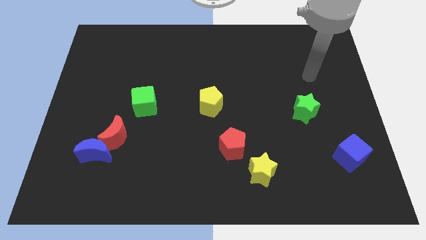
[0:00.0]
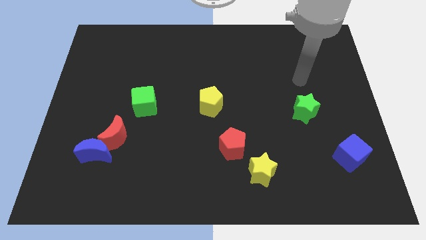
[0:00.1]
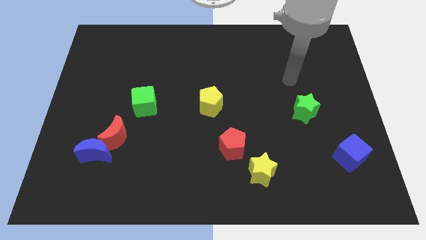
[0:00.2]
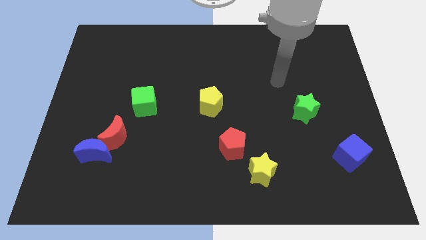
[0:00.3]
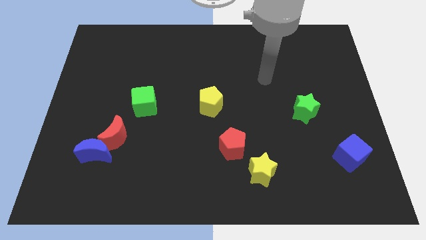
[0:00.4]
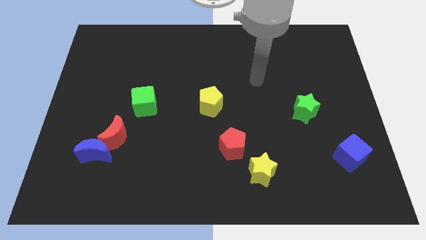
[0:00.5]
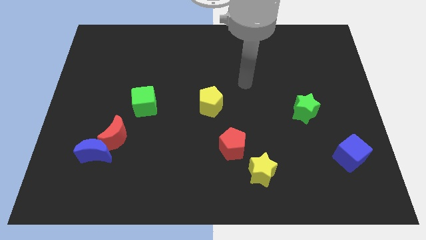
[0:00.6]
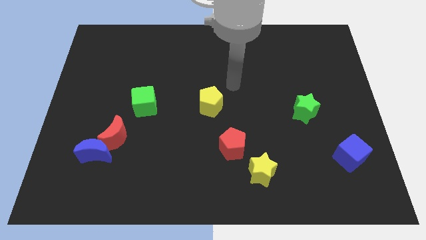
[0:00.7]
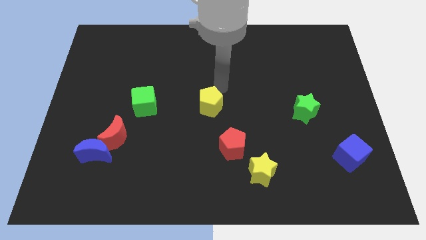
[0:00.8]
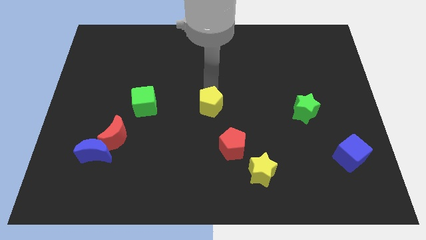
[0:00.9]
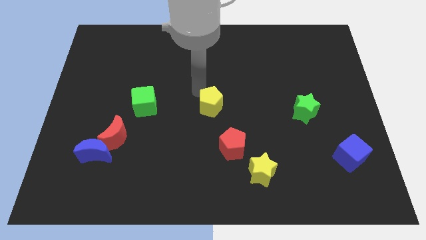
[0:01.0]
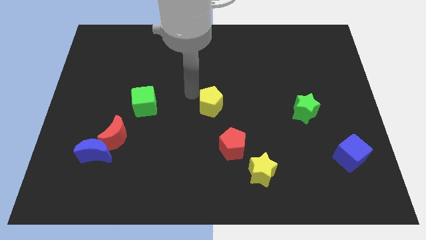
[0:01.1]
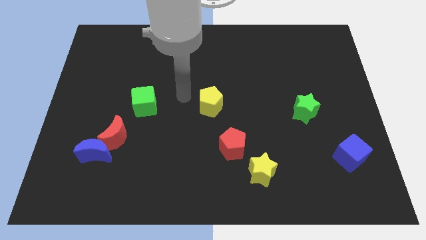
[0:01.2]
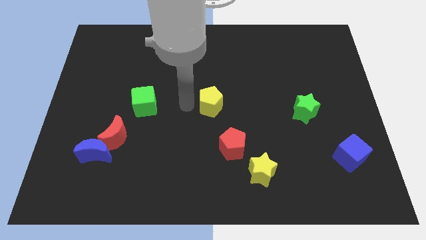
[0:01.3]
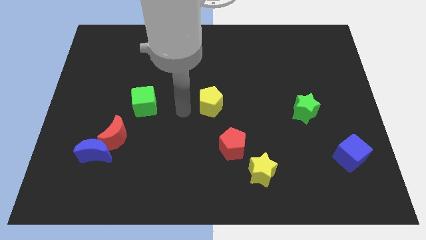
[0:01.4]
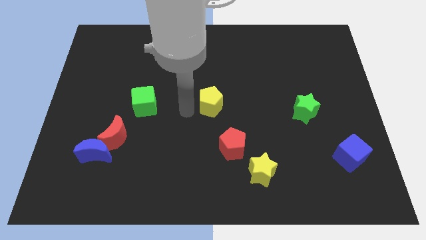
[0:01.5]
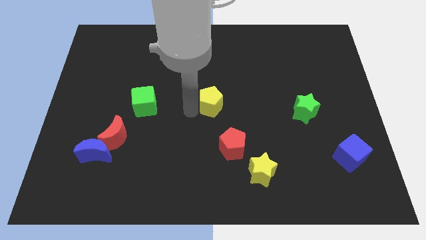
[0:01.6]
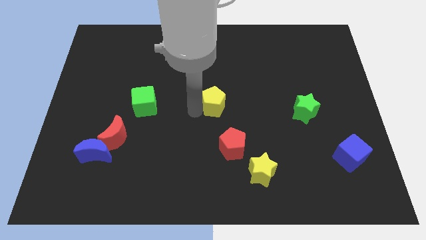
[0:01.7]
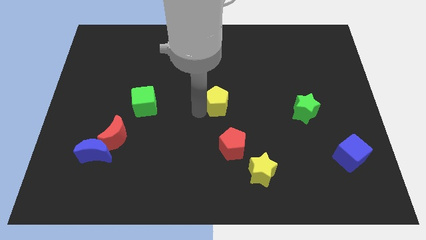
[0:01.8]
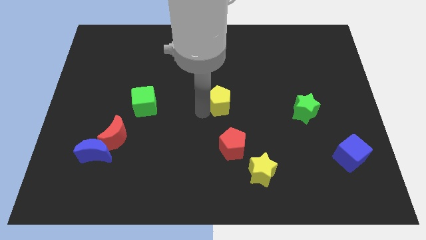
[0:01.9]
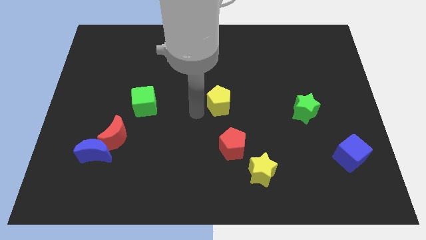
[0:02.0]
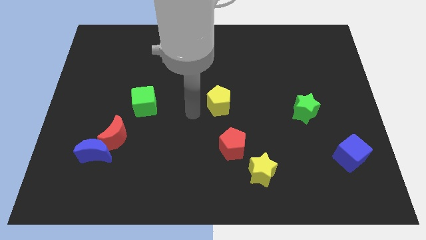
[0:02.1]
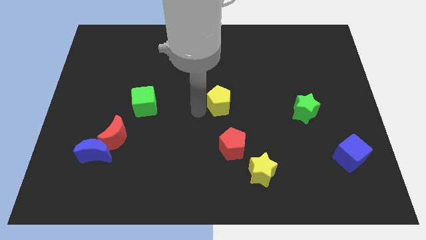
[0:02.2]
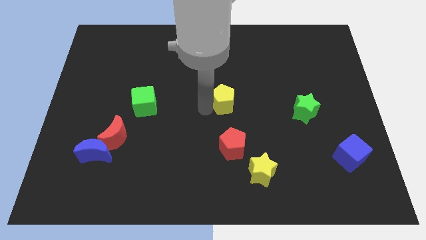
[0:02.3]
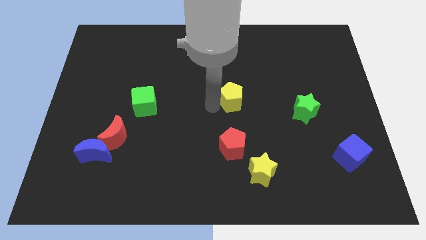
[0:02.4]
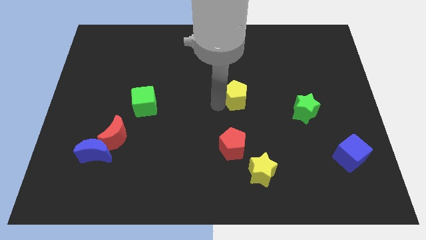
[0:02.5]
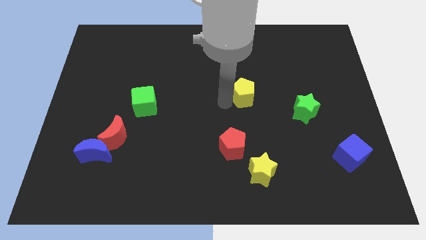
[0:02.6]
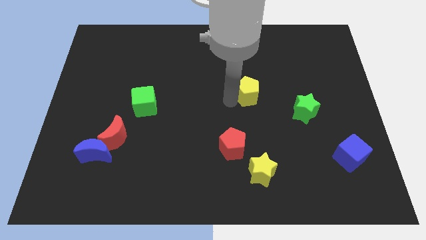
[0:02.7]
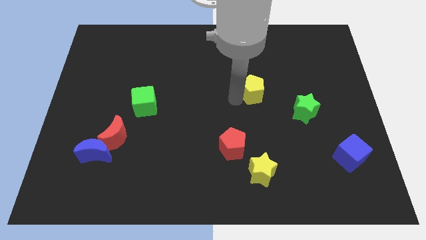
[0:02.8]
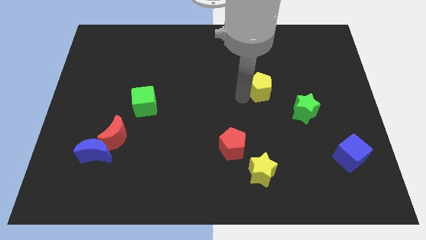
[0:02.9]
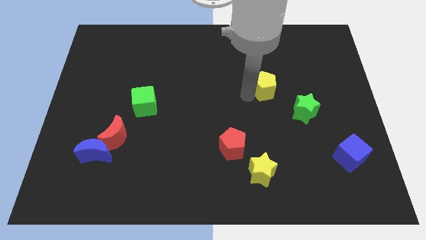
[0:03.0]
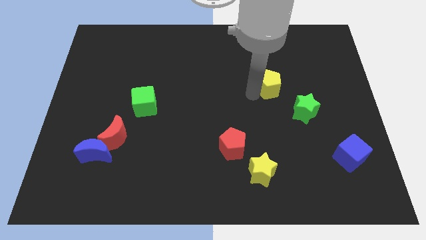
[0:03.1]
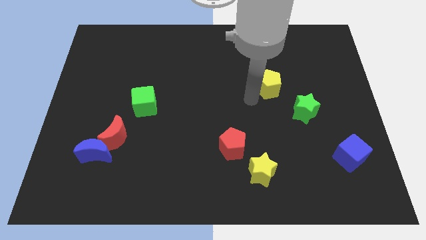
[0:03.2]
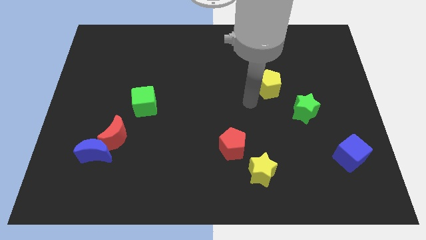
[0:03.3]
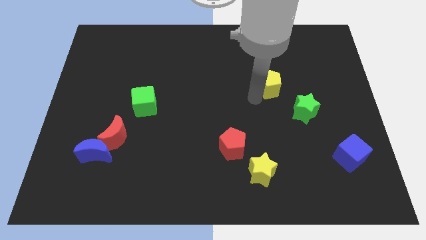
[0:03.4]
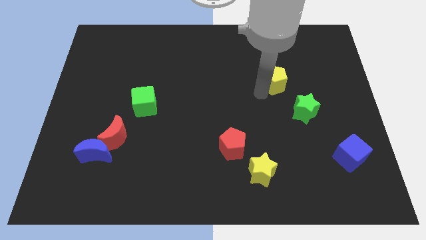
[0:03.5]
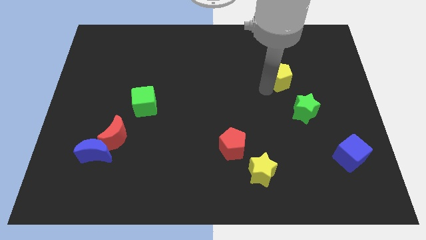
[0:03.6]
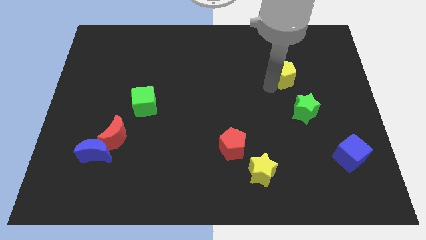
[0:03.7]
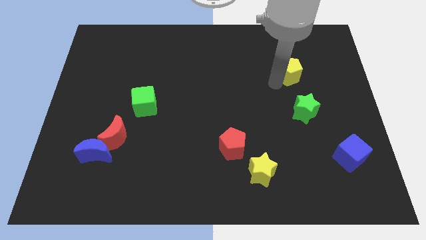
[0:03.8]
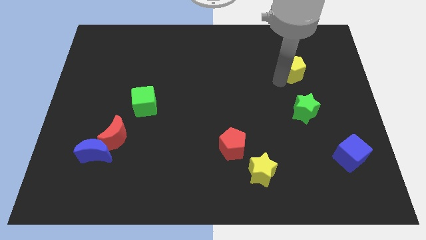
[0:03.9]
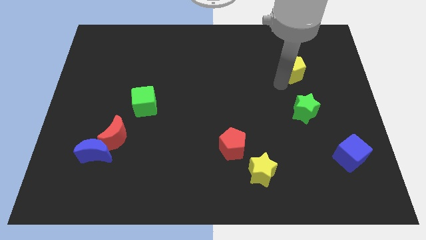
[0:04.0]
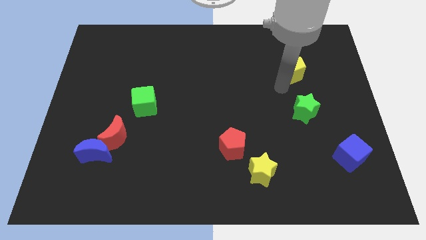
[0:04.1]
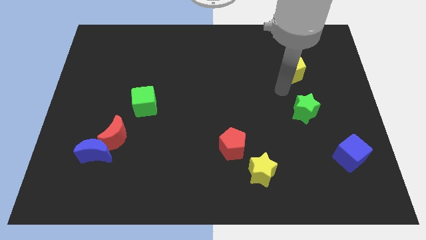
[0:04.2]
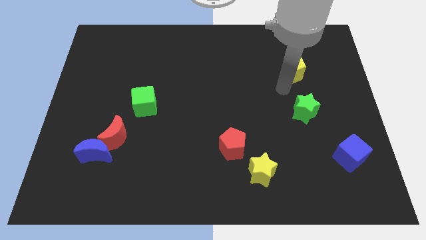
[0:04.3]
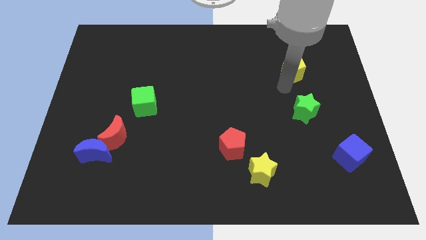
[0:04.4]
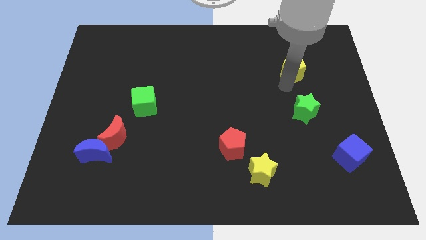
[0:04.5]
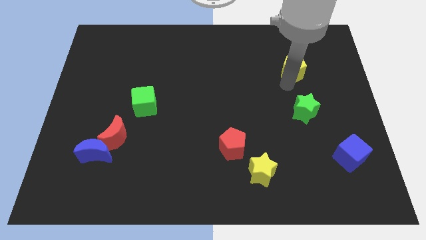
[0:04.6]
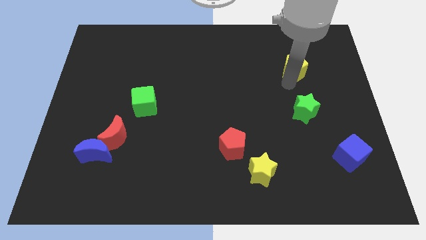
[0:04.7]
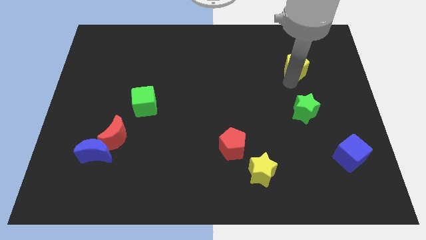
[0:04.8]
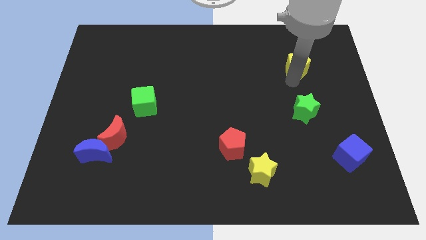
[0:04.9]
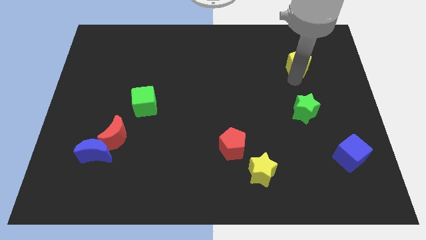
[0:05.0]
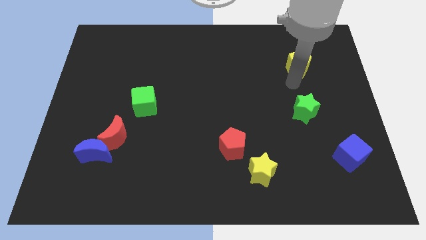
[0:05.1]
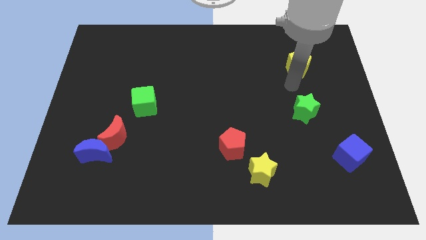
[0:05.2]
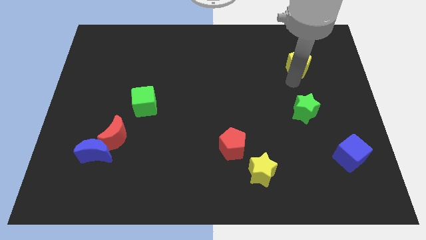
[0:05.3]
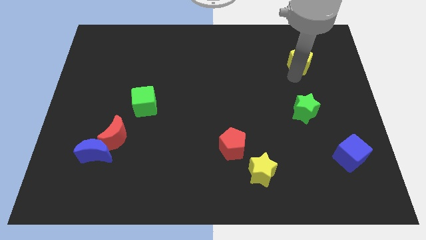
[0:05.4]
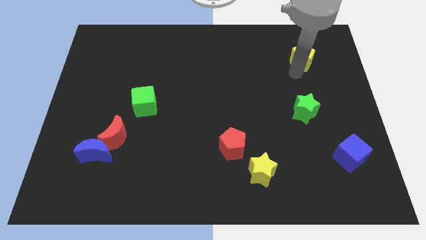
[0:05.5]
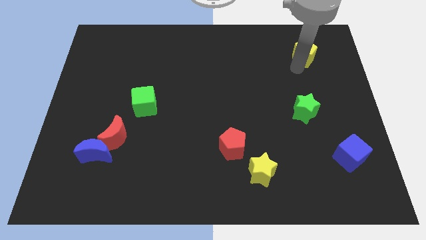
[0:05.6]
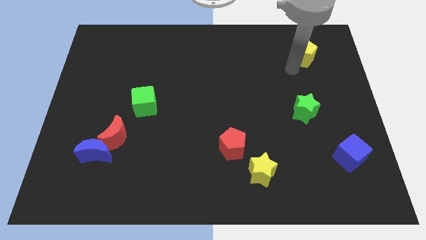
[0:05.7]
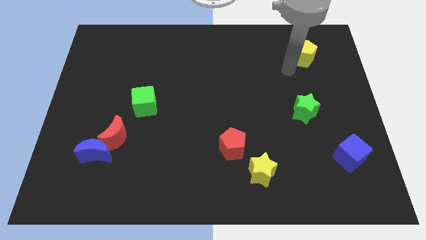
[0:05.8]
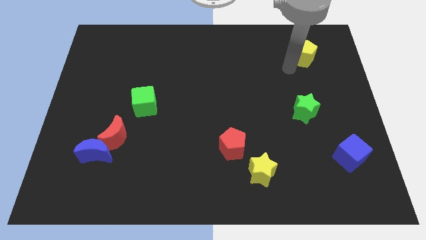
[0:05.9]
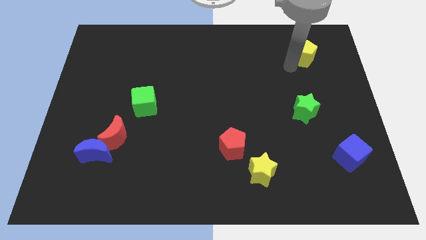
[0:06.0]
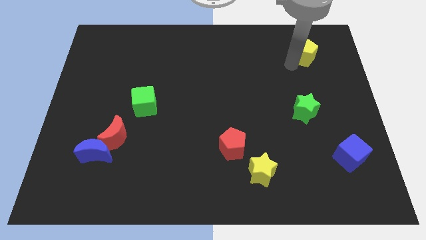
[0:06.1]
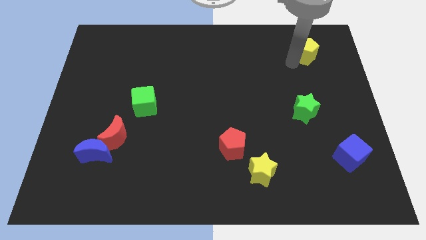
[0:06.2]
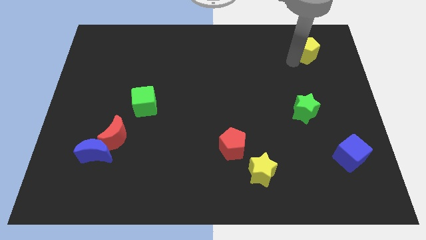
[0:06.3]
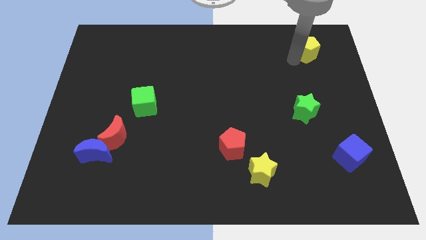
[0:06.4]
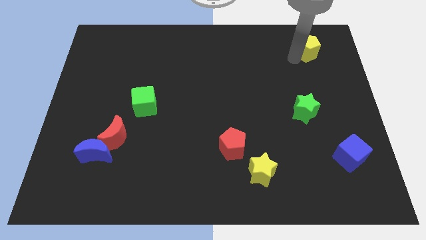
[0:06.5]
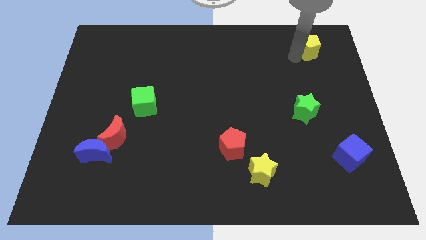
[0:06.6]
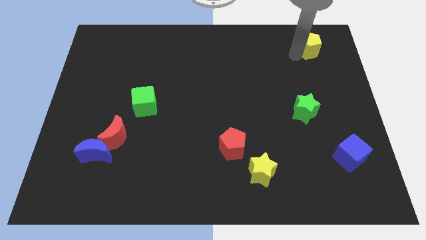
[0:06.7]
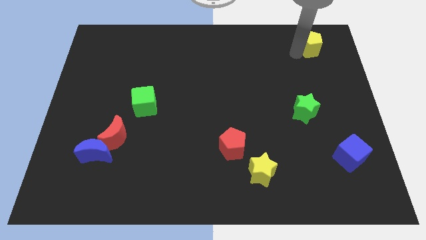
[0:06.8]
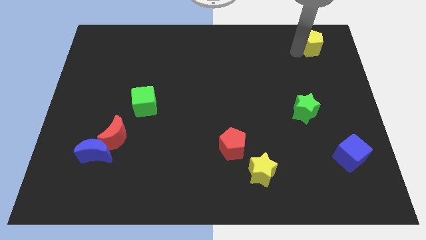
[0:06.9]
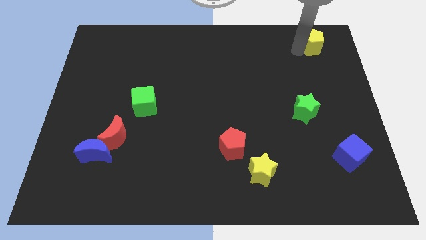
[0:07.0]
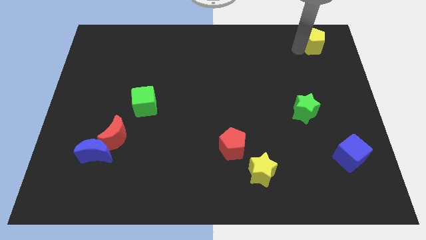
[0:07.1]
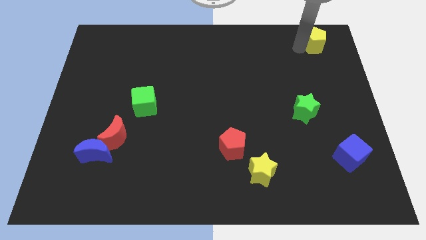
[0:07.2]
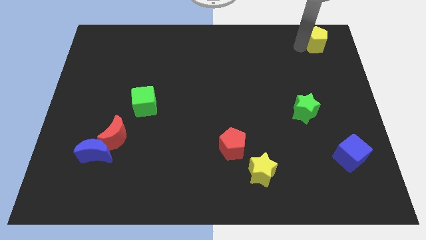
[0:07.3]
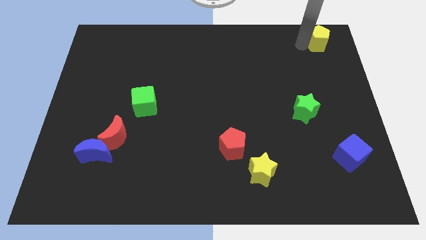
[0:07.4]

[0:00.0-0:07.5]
move the yellow pentagon to the top right of the board
